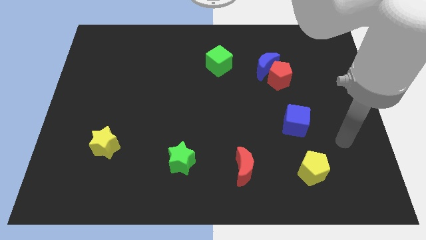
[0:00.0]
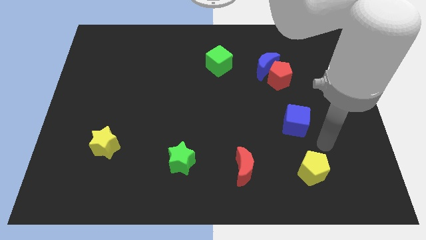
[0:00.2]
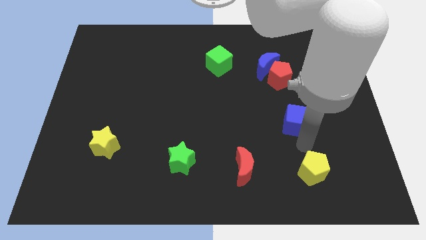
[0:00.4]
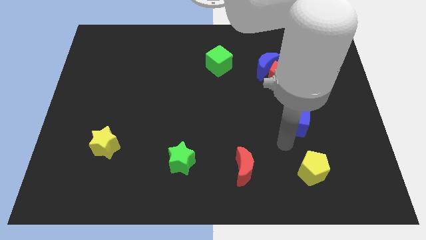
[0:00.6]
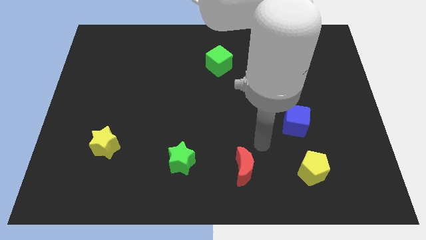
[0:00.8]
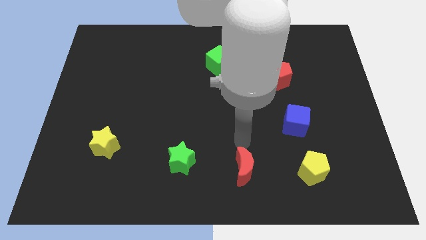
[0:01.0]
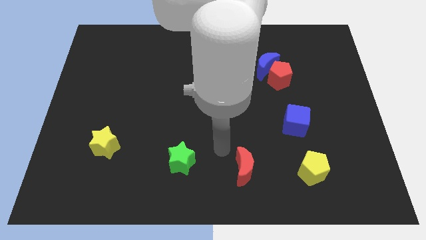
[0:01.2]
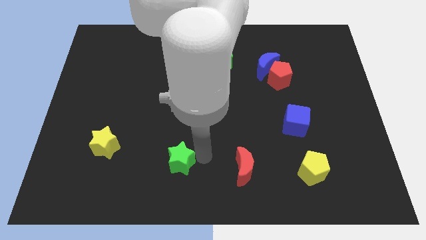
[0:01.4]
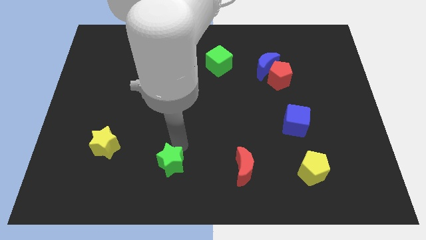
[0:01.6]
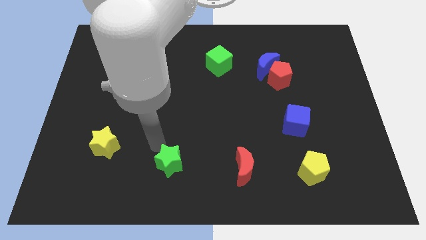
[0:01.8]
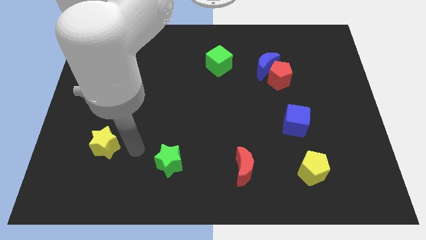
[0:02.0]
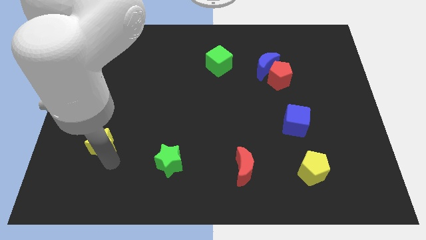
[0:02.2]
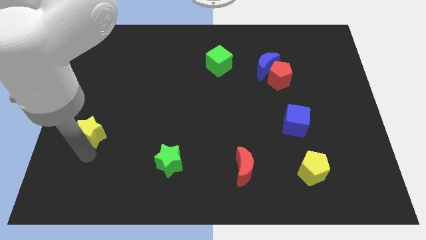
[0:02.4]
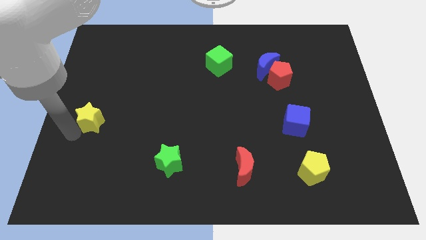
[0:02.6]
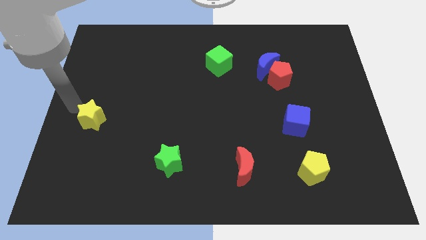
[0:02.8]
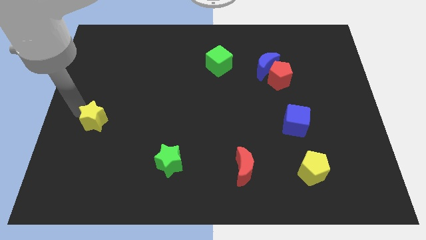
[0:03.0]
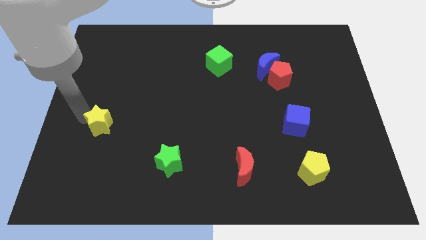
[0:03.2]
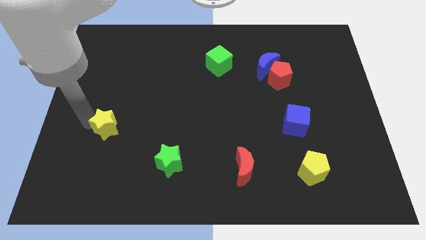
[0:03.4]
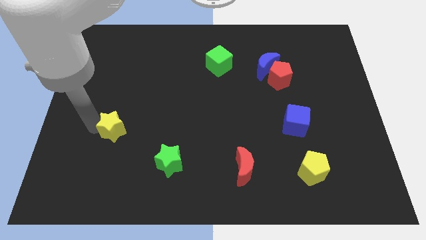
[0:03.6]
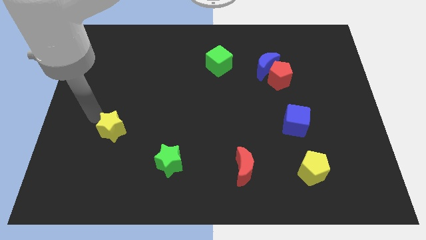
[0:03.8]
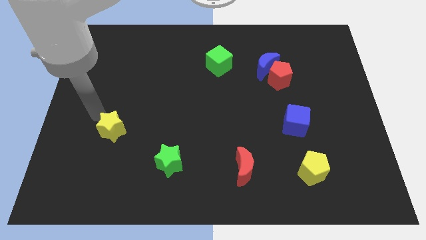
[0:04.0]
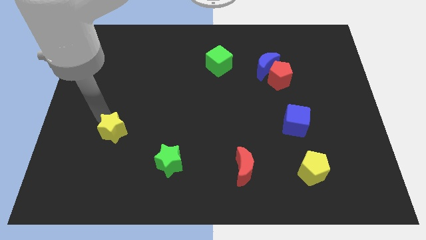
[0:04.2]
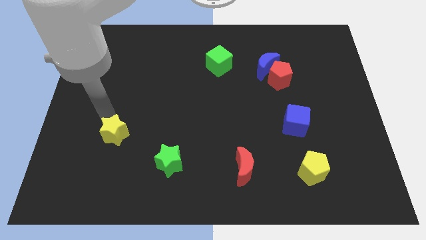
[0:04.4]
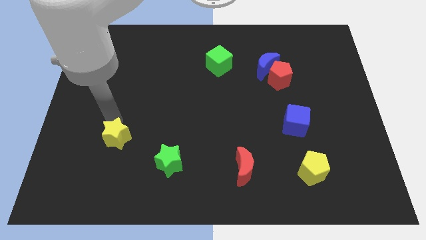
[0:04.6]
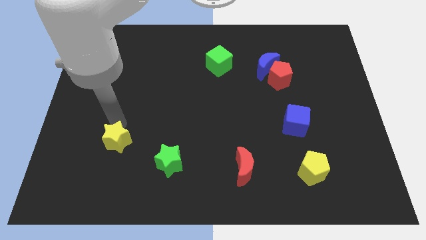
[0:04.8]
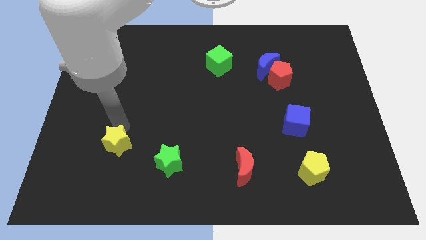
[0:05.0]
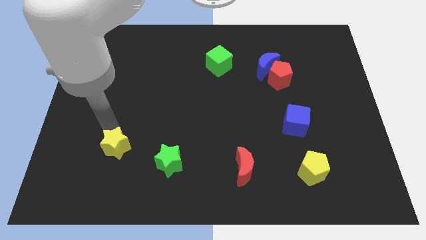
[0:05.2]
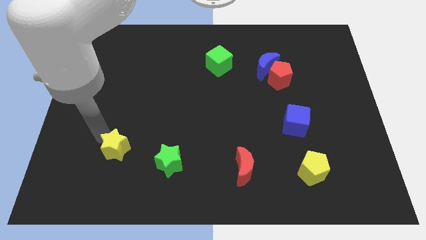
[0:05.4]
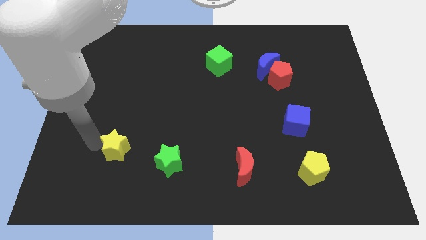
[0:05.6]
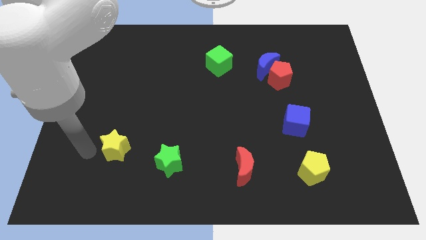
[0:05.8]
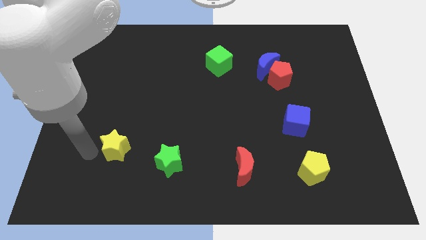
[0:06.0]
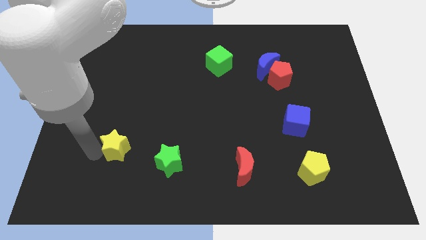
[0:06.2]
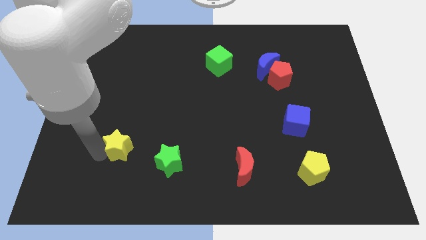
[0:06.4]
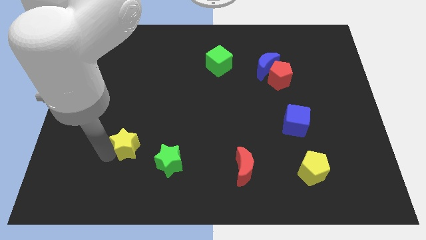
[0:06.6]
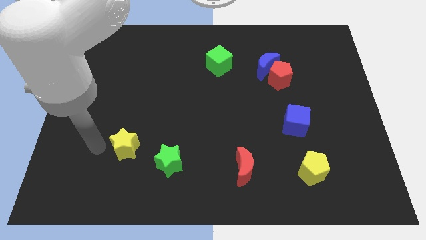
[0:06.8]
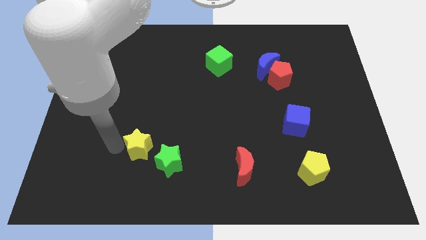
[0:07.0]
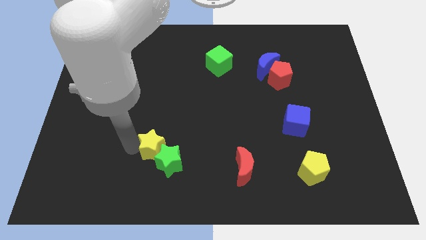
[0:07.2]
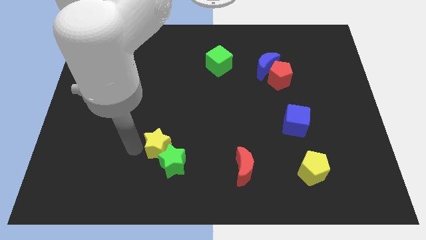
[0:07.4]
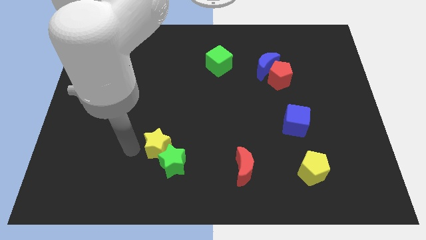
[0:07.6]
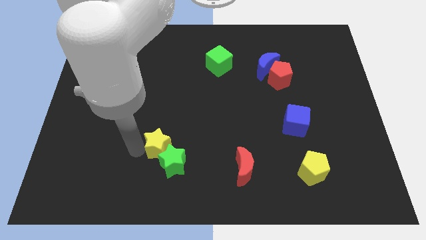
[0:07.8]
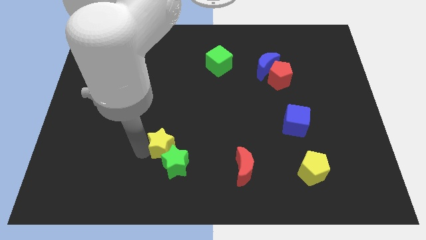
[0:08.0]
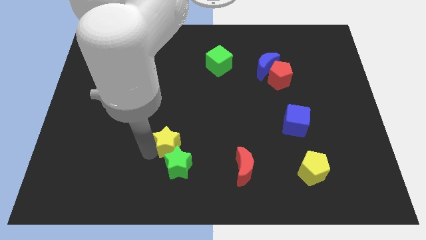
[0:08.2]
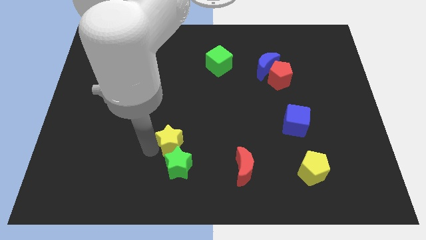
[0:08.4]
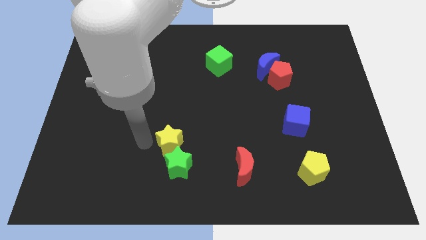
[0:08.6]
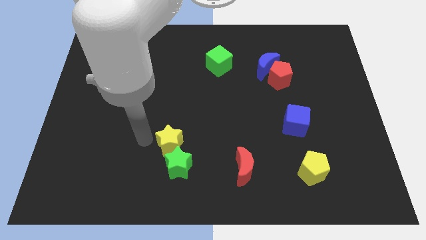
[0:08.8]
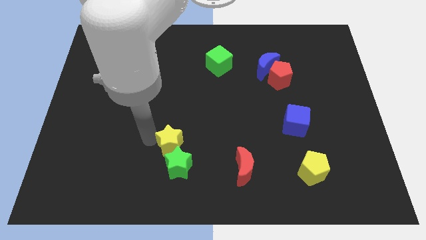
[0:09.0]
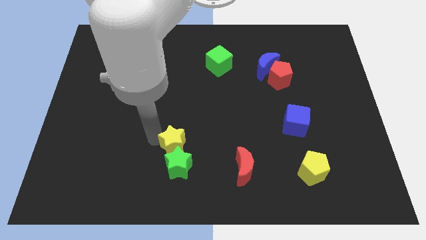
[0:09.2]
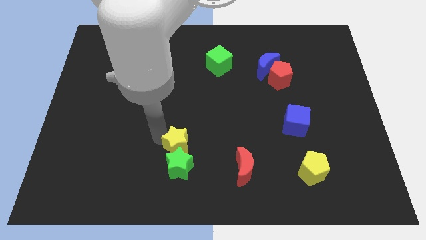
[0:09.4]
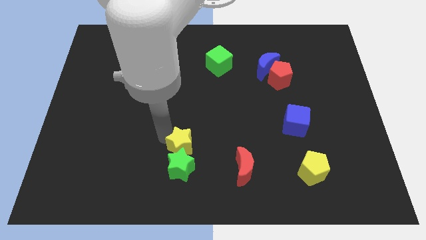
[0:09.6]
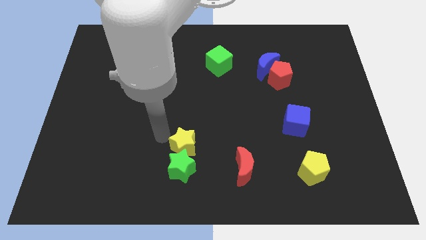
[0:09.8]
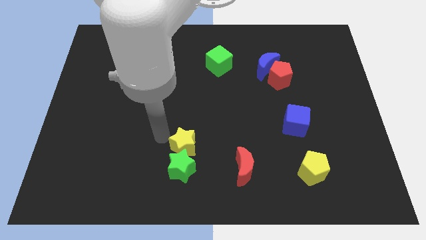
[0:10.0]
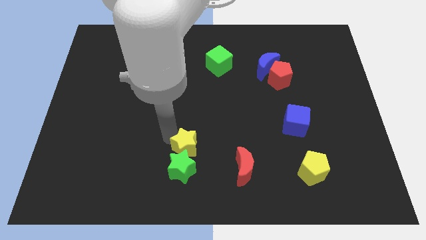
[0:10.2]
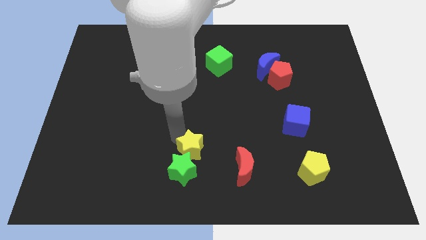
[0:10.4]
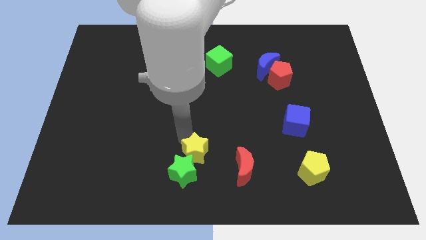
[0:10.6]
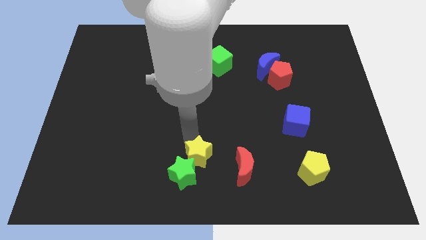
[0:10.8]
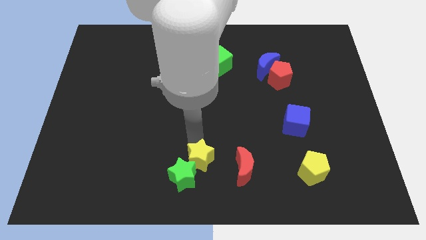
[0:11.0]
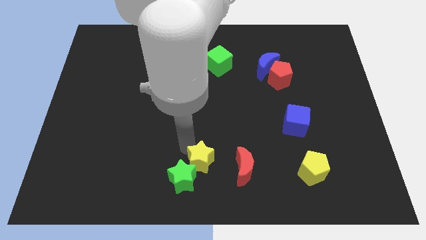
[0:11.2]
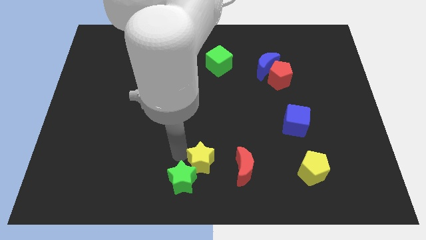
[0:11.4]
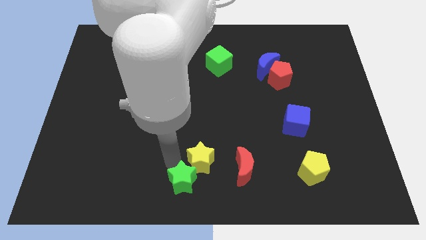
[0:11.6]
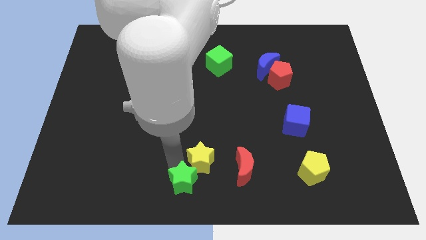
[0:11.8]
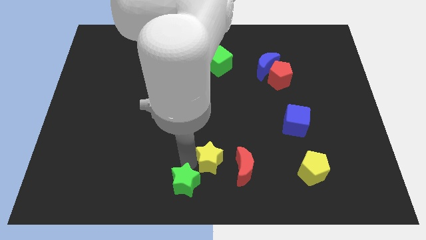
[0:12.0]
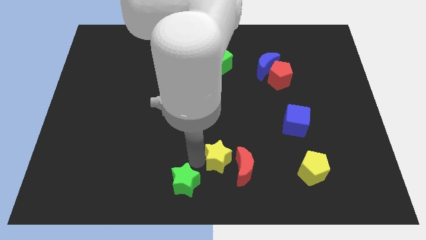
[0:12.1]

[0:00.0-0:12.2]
move the yellow star close to the red moon
